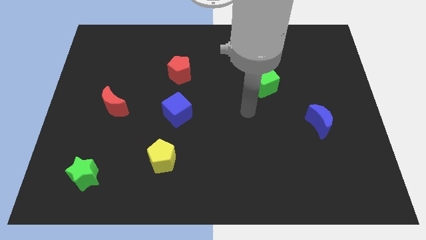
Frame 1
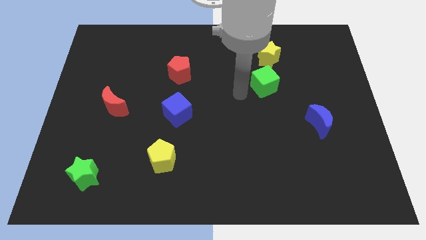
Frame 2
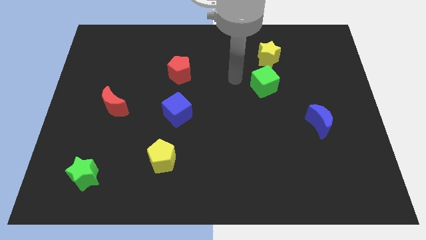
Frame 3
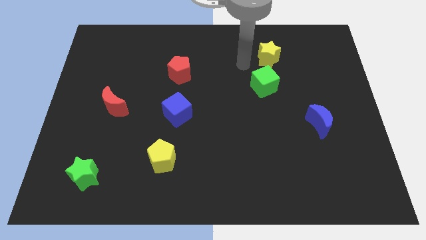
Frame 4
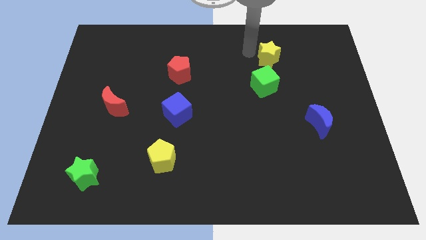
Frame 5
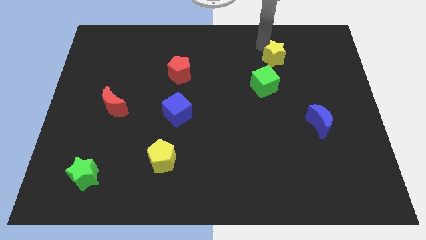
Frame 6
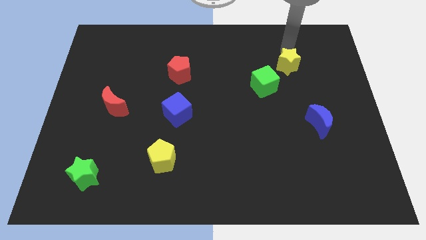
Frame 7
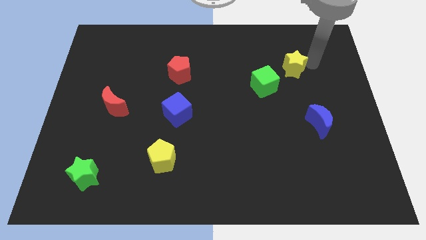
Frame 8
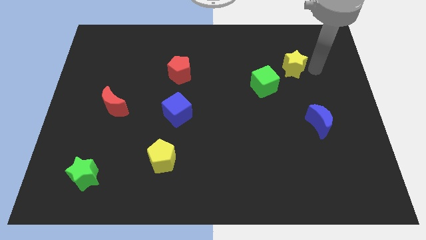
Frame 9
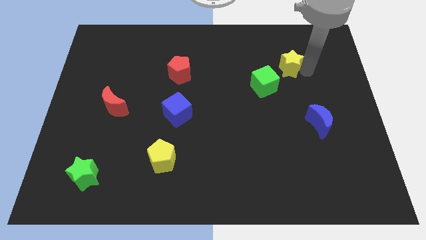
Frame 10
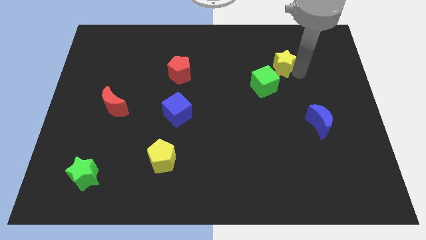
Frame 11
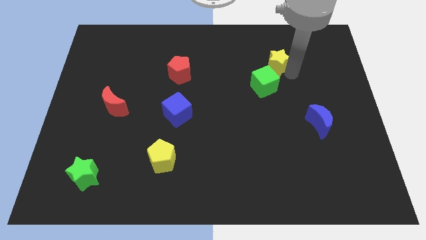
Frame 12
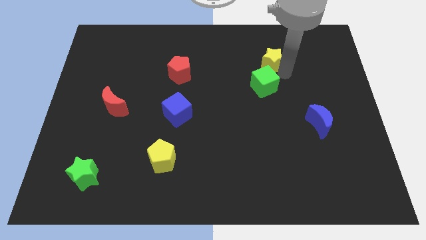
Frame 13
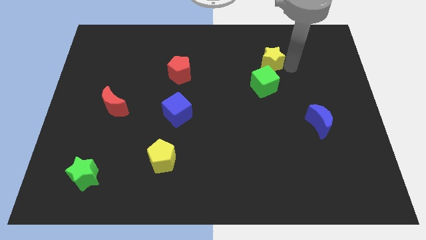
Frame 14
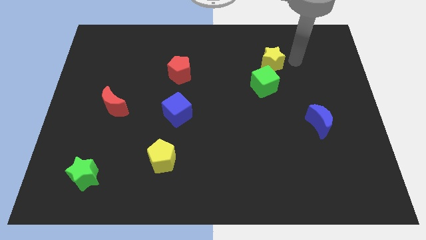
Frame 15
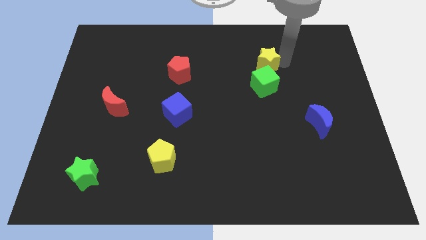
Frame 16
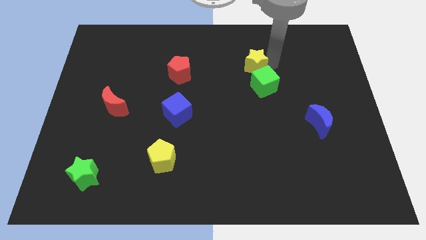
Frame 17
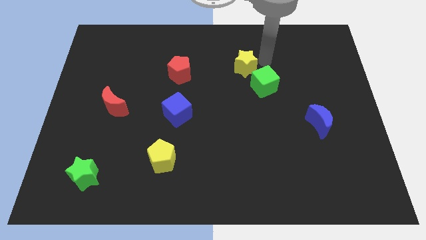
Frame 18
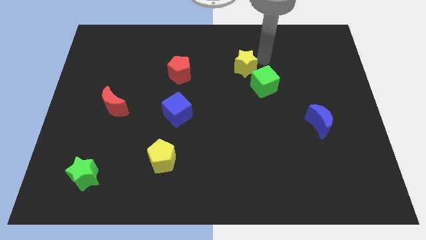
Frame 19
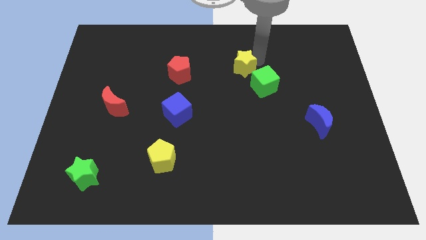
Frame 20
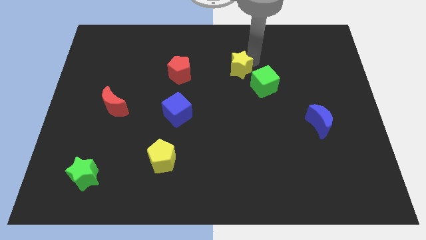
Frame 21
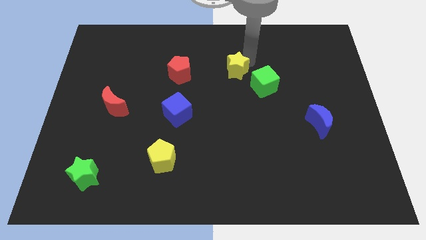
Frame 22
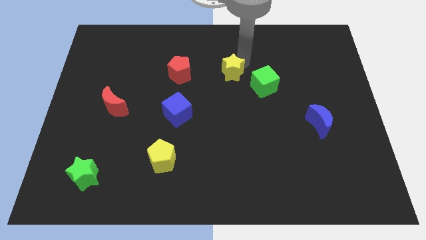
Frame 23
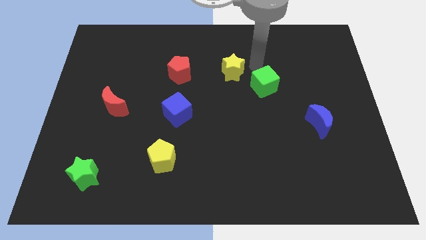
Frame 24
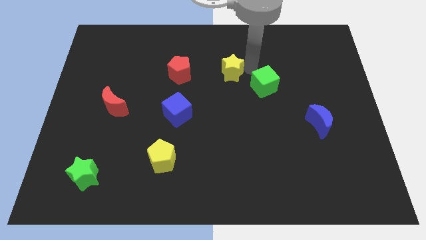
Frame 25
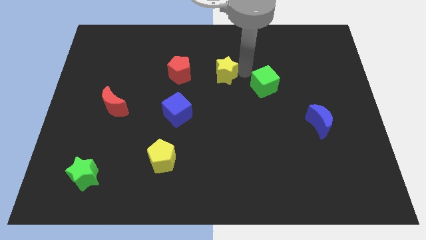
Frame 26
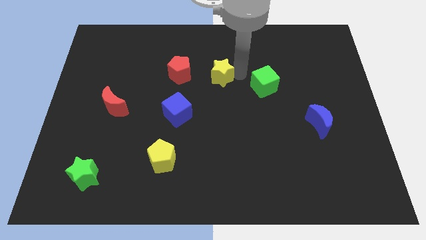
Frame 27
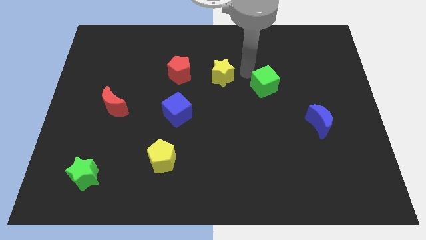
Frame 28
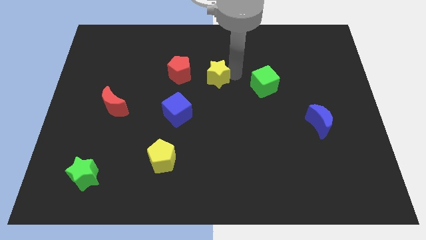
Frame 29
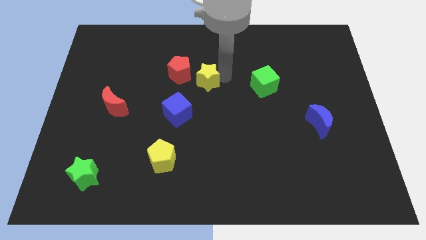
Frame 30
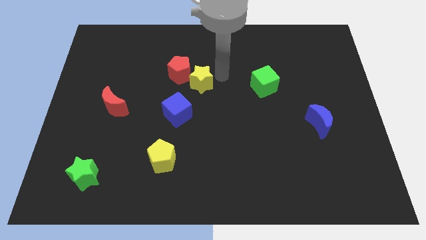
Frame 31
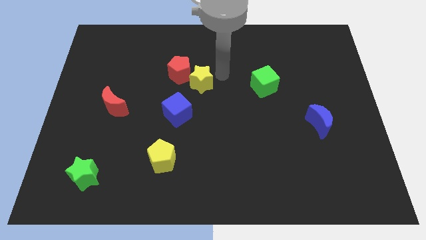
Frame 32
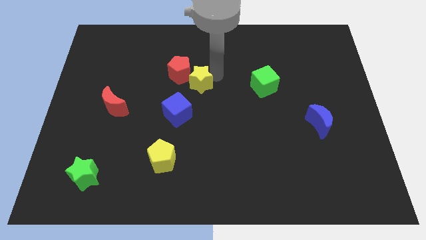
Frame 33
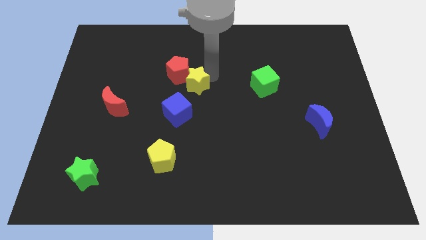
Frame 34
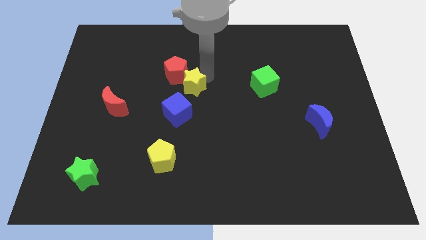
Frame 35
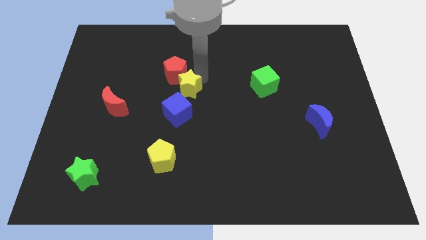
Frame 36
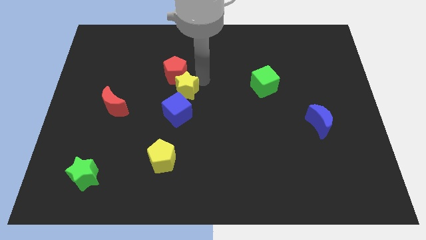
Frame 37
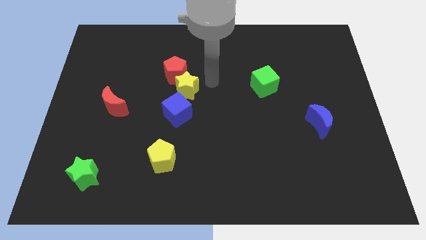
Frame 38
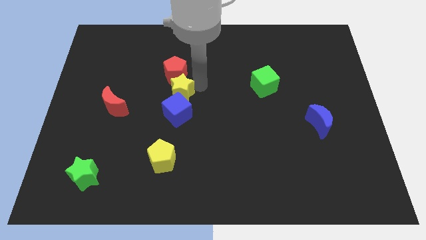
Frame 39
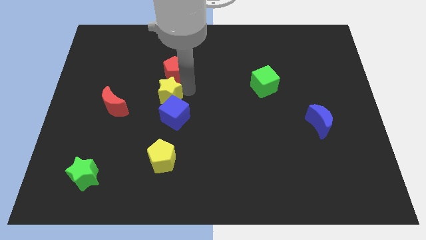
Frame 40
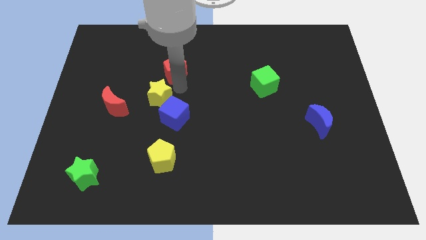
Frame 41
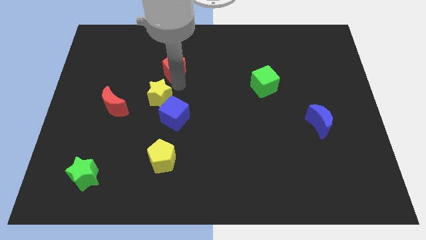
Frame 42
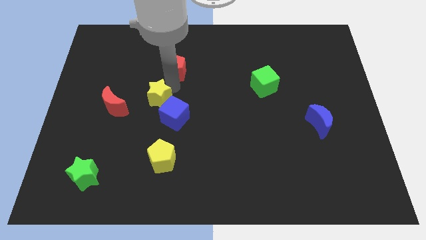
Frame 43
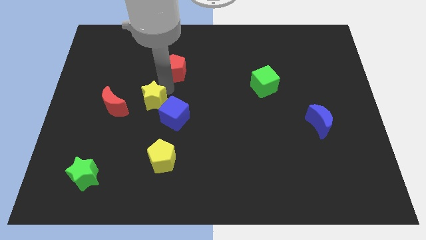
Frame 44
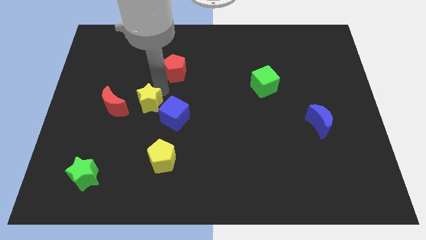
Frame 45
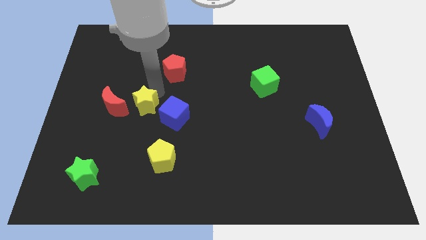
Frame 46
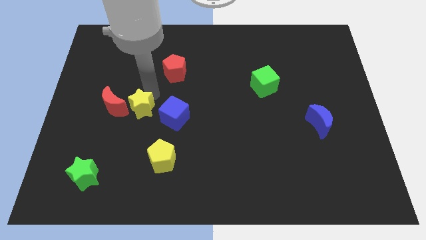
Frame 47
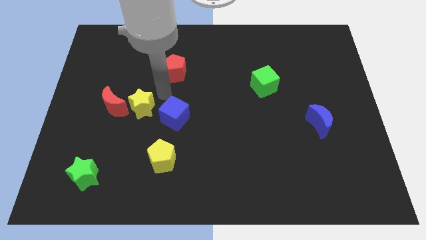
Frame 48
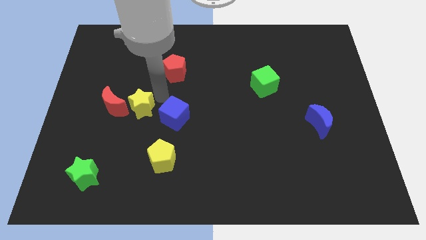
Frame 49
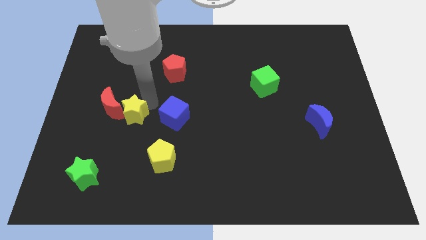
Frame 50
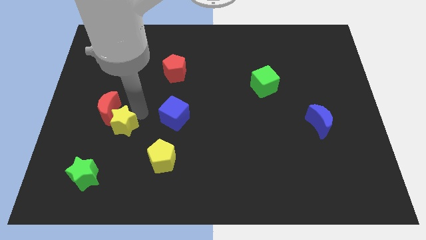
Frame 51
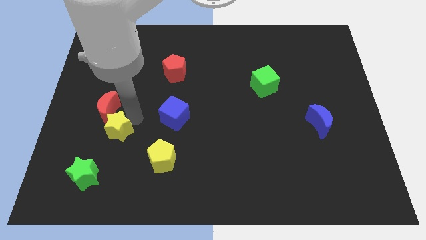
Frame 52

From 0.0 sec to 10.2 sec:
put the yellow star to the top of the green star

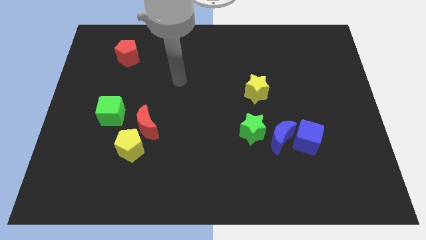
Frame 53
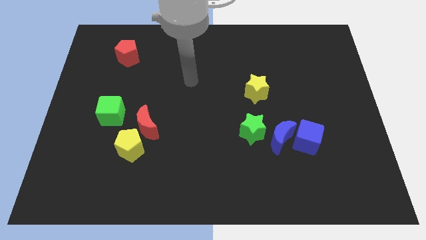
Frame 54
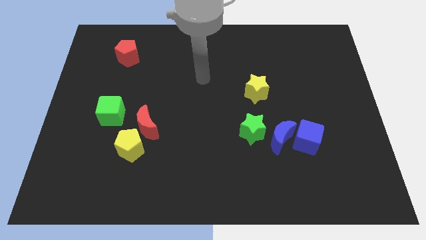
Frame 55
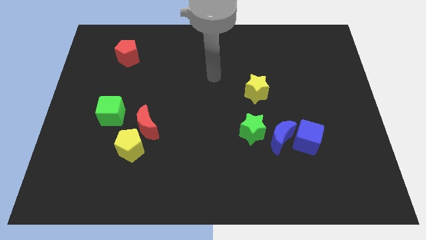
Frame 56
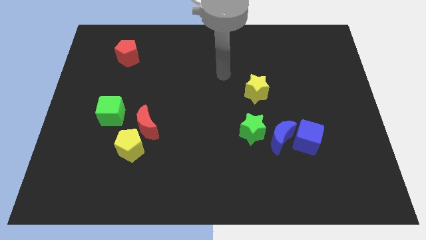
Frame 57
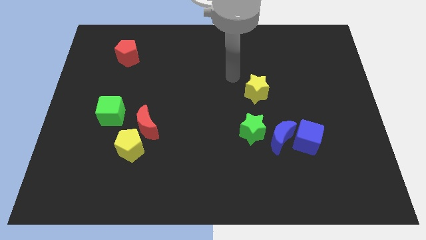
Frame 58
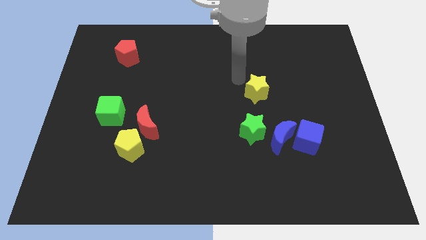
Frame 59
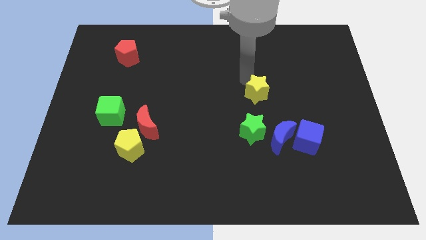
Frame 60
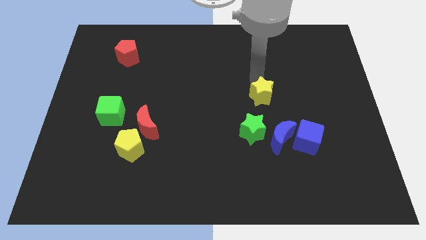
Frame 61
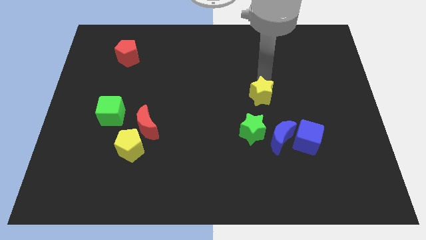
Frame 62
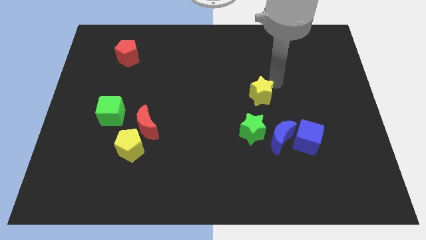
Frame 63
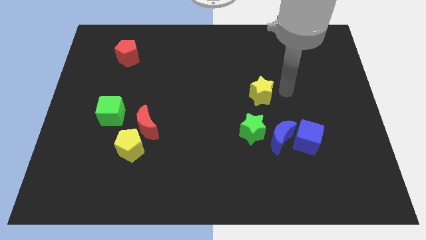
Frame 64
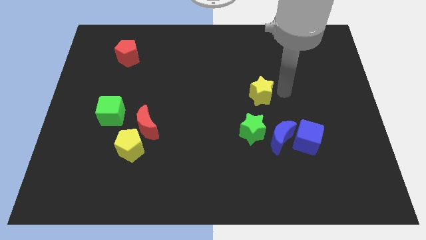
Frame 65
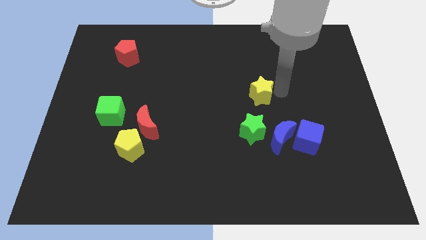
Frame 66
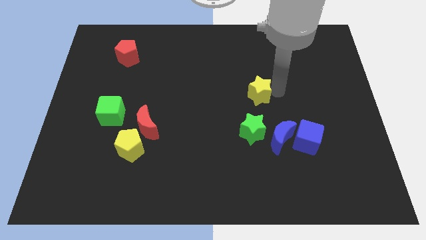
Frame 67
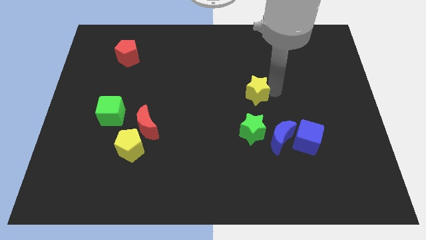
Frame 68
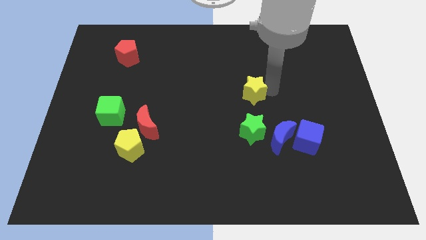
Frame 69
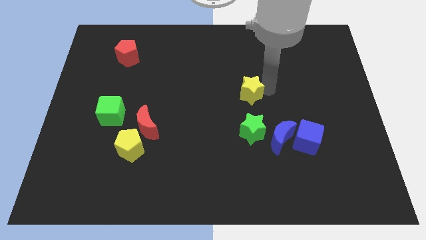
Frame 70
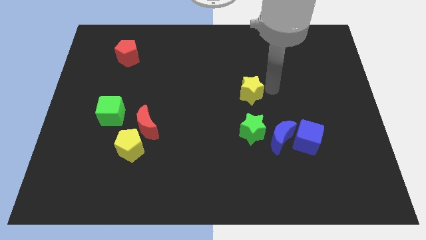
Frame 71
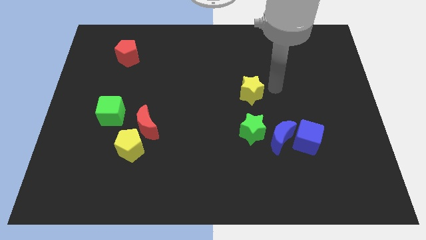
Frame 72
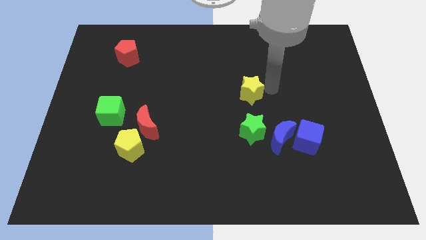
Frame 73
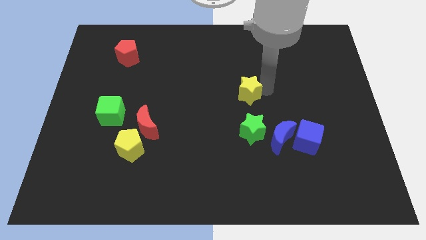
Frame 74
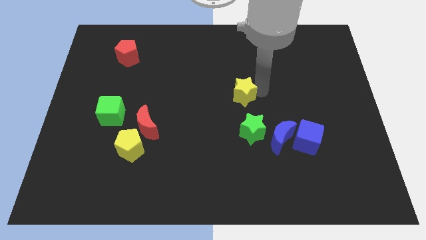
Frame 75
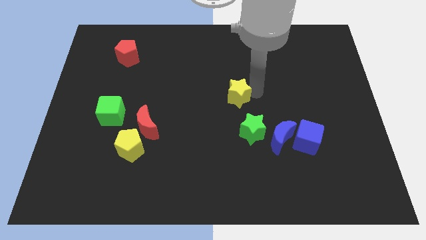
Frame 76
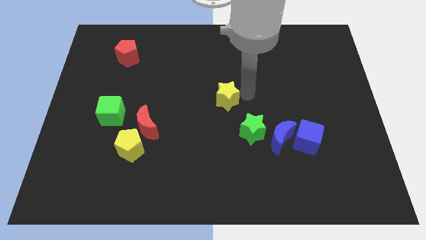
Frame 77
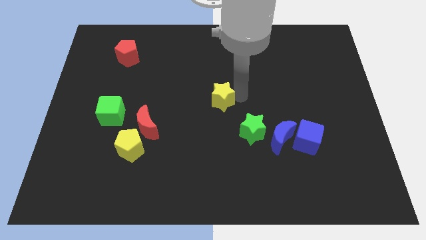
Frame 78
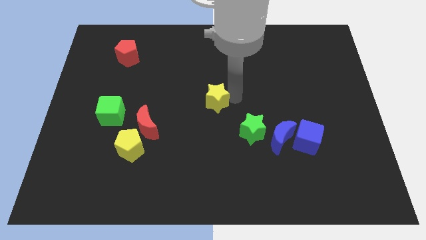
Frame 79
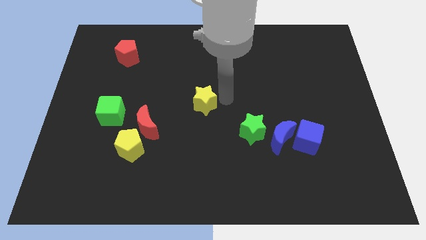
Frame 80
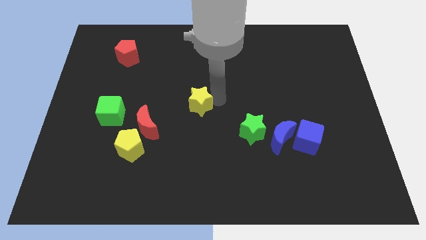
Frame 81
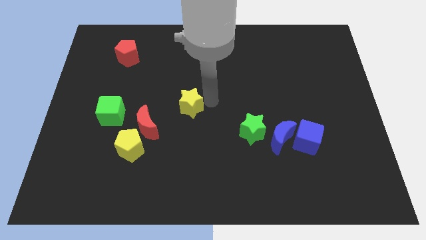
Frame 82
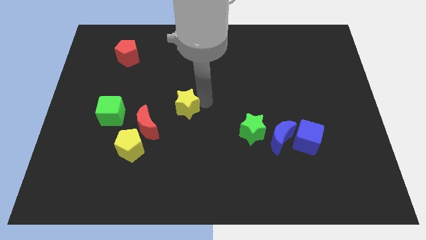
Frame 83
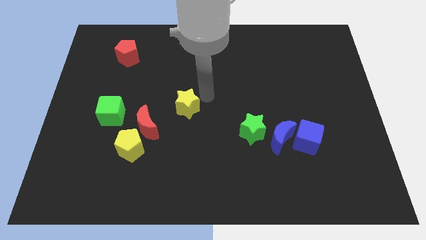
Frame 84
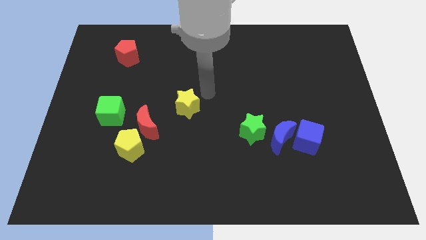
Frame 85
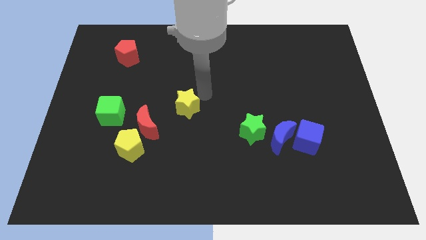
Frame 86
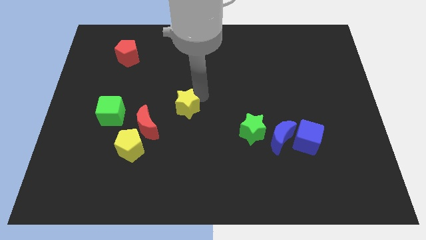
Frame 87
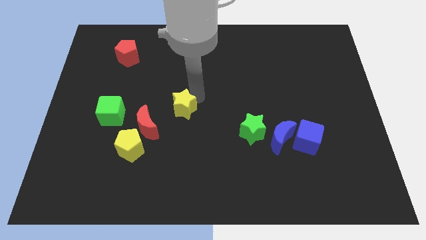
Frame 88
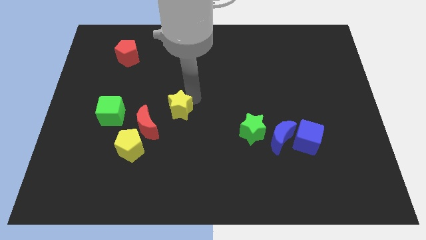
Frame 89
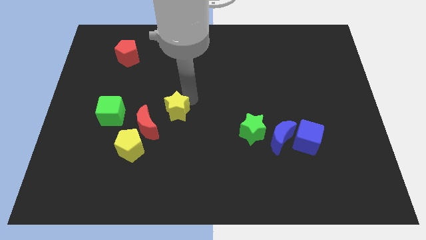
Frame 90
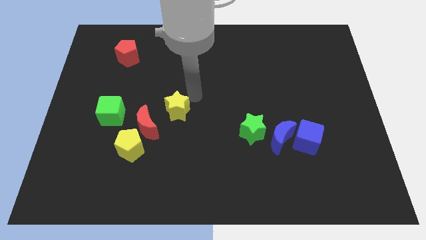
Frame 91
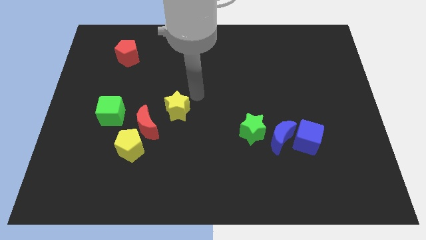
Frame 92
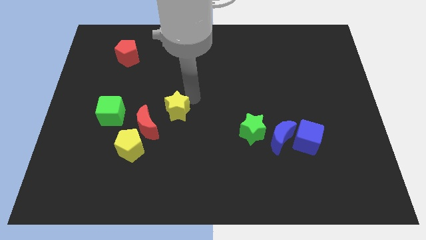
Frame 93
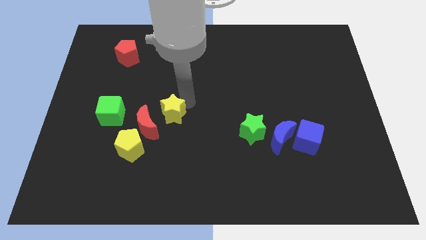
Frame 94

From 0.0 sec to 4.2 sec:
slide the yellow star diagonally up and to the right of the yellow pentagon
